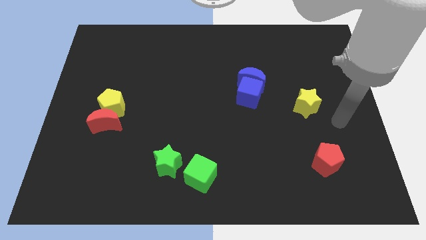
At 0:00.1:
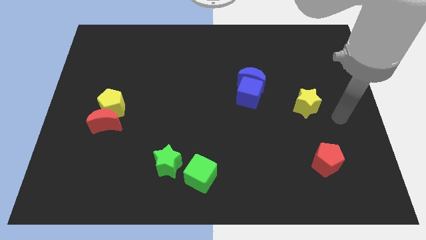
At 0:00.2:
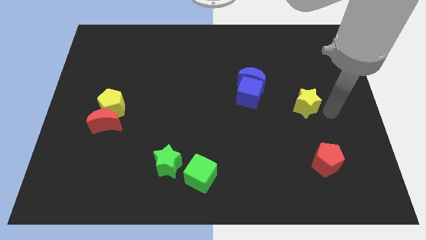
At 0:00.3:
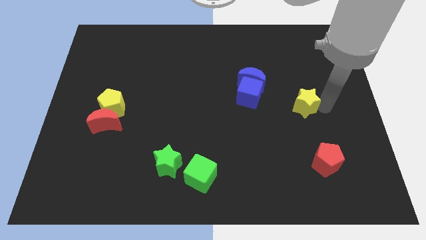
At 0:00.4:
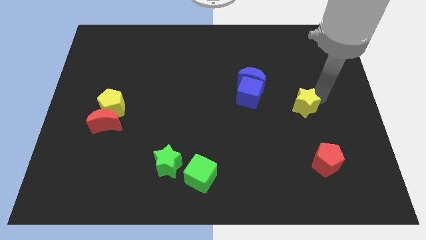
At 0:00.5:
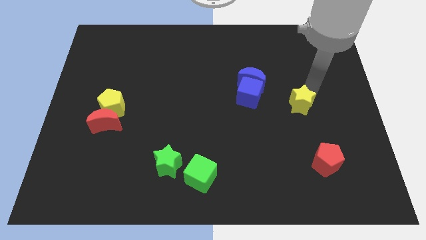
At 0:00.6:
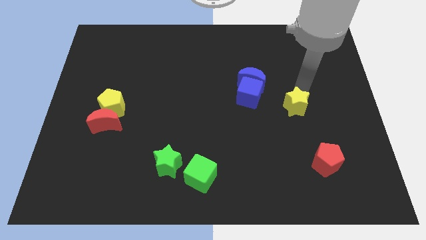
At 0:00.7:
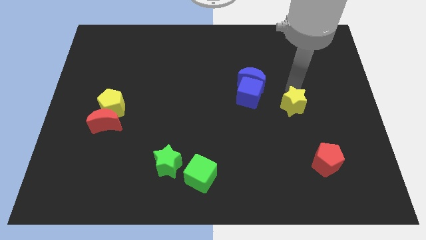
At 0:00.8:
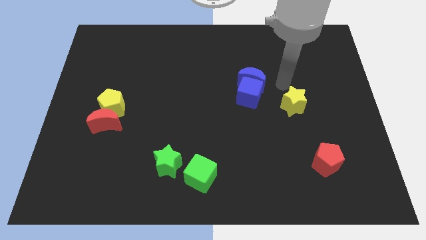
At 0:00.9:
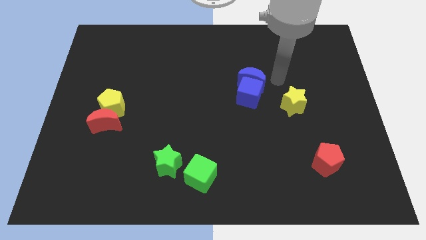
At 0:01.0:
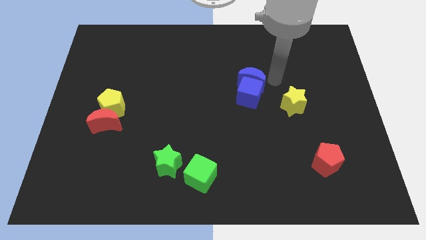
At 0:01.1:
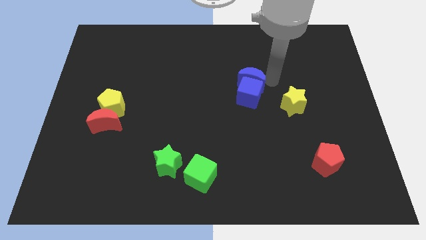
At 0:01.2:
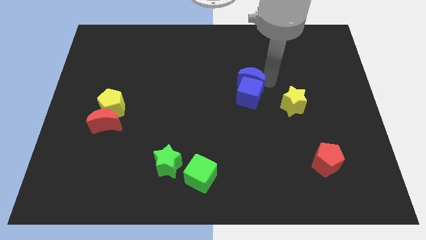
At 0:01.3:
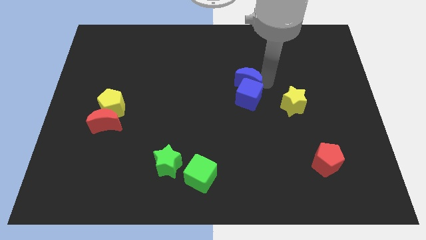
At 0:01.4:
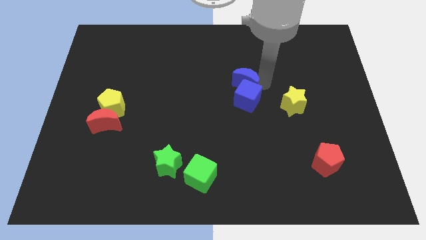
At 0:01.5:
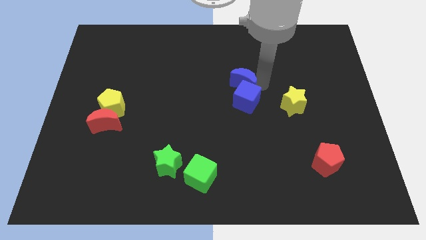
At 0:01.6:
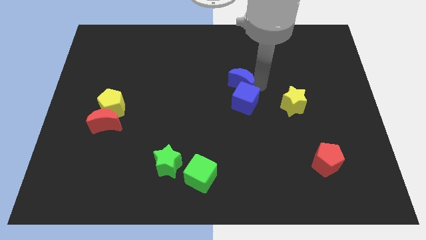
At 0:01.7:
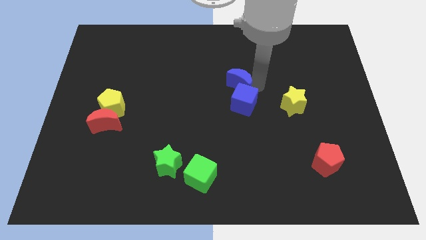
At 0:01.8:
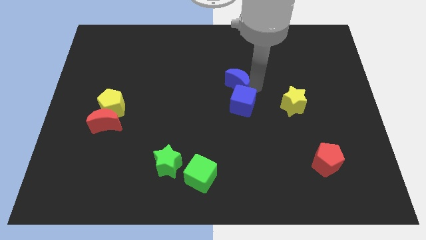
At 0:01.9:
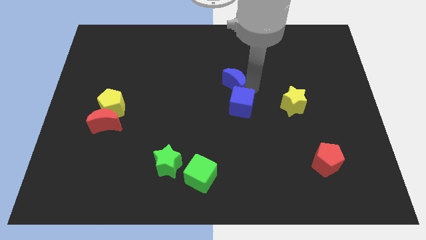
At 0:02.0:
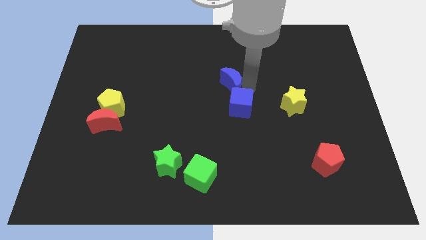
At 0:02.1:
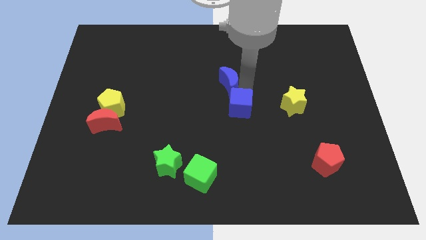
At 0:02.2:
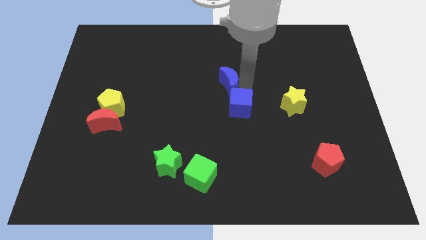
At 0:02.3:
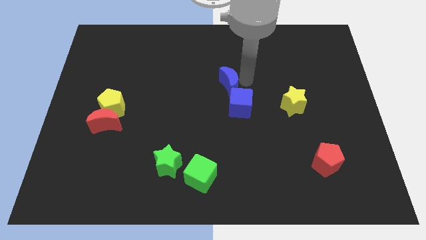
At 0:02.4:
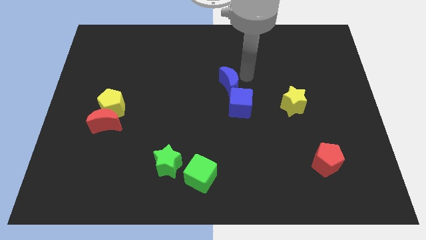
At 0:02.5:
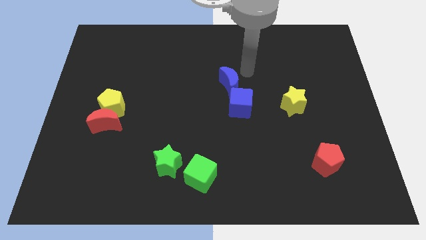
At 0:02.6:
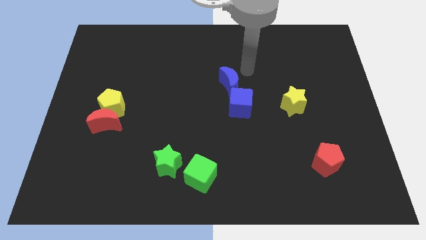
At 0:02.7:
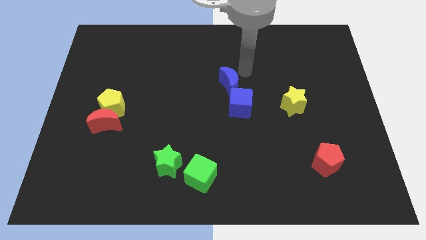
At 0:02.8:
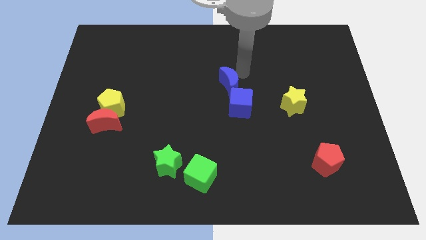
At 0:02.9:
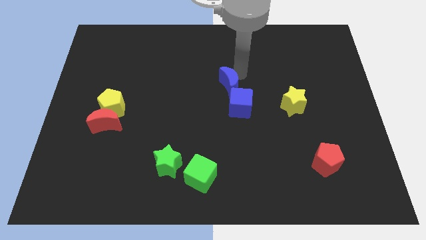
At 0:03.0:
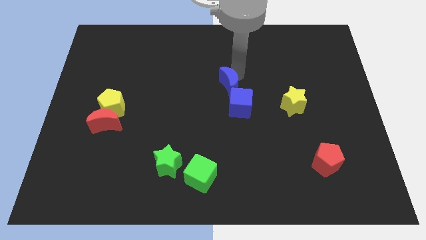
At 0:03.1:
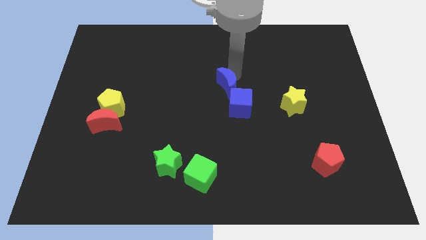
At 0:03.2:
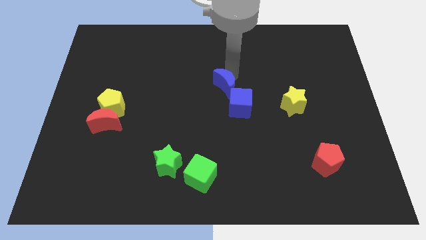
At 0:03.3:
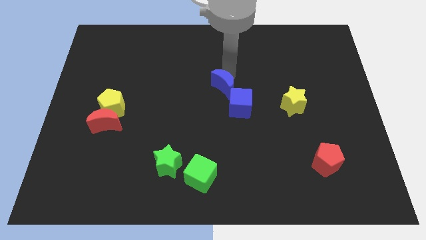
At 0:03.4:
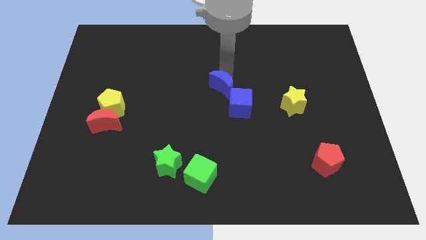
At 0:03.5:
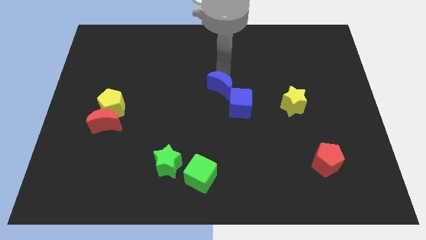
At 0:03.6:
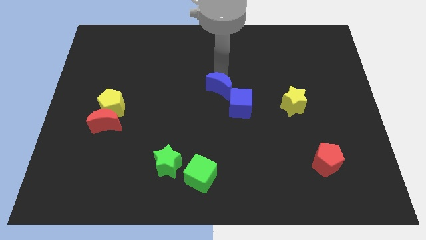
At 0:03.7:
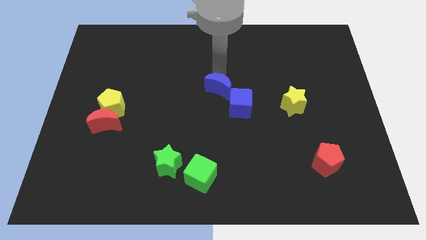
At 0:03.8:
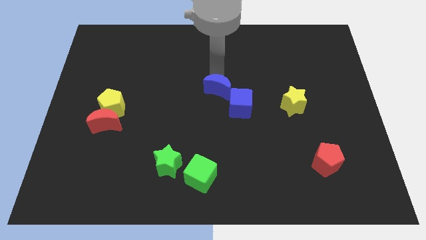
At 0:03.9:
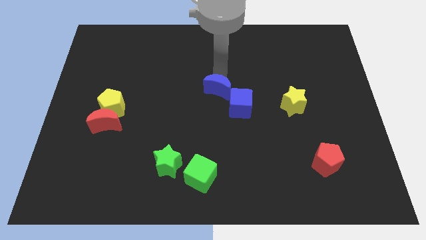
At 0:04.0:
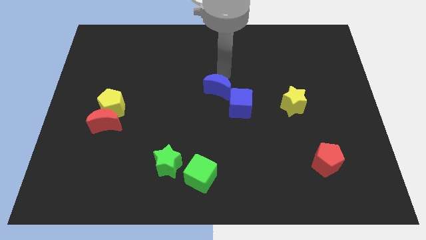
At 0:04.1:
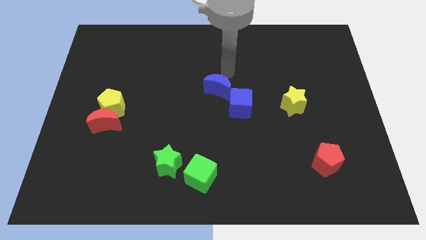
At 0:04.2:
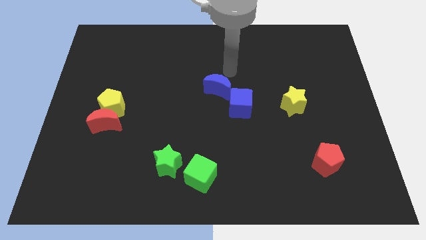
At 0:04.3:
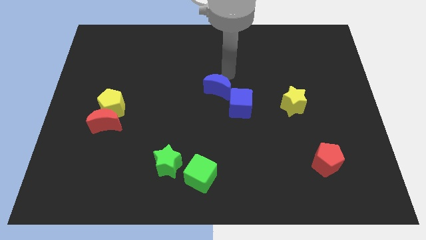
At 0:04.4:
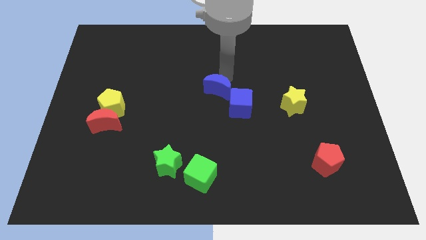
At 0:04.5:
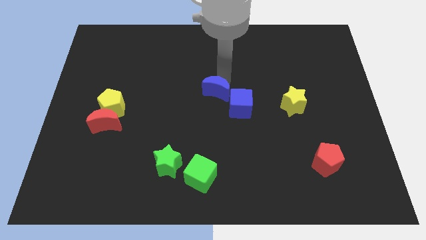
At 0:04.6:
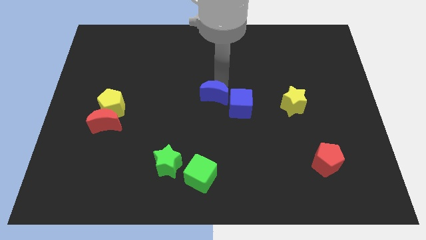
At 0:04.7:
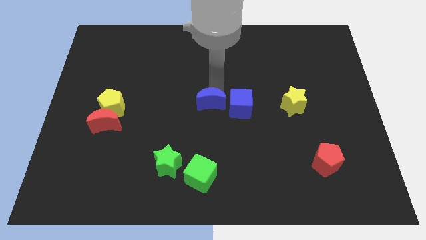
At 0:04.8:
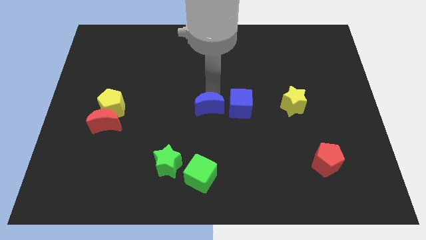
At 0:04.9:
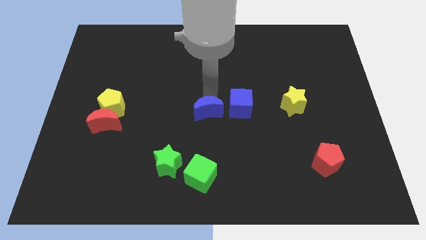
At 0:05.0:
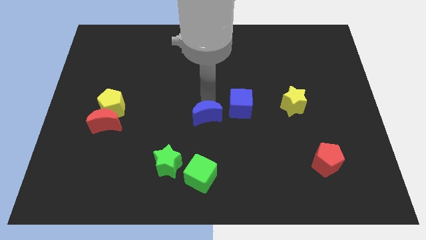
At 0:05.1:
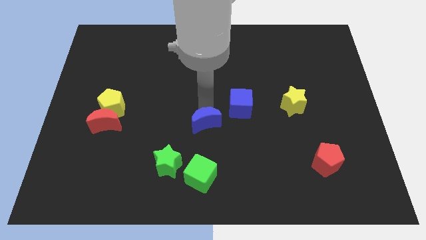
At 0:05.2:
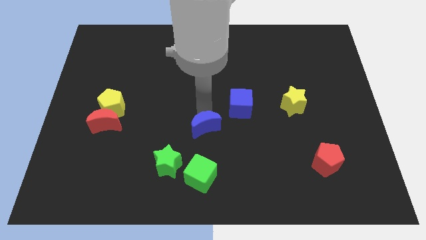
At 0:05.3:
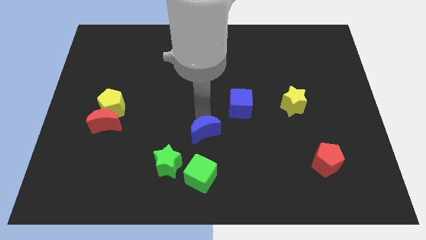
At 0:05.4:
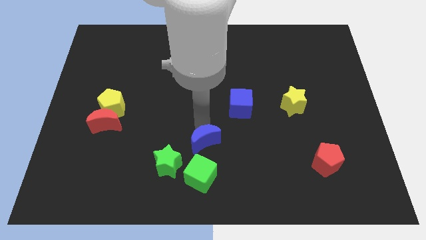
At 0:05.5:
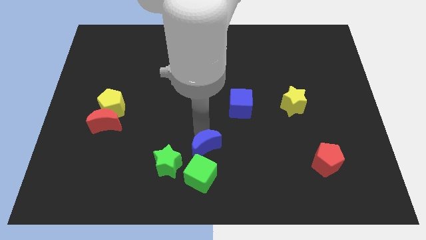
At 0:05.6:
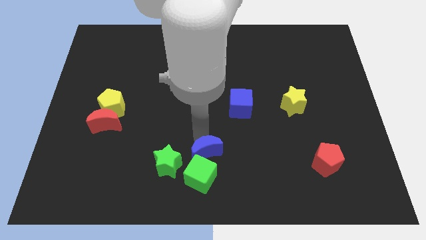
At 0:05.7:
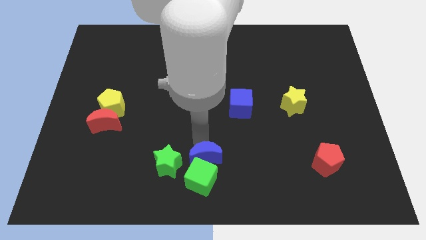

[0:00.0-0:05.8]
put the blue moon to the bottom

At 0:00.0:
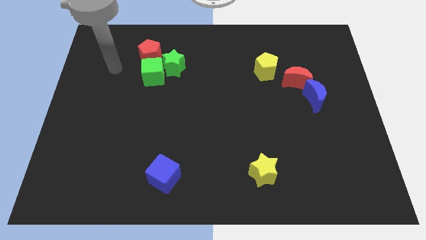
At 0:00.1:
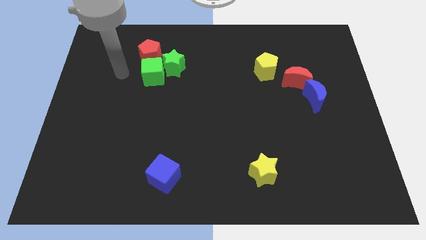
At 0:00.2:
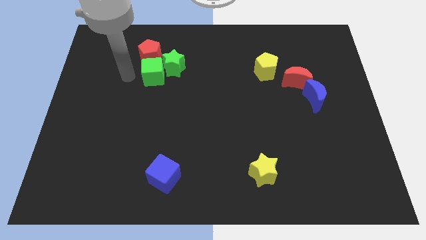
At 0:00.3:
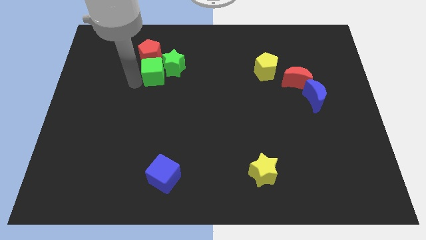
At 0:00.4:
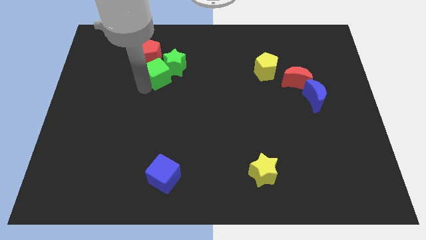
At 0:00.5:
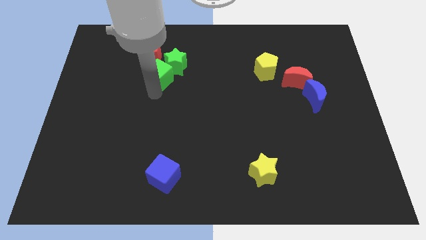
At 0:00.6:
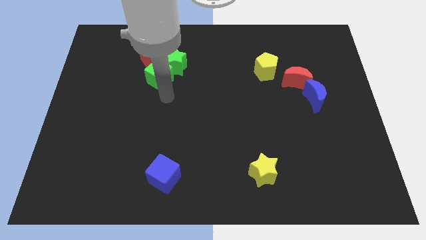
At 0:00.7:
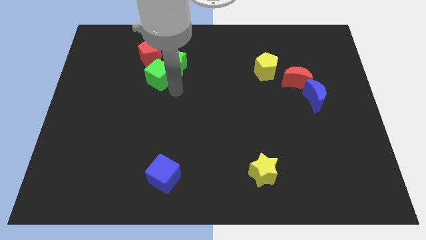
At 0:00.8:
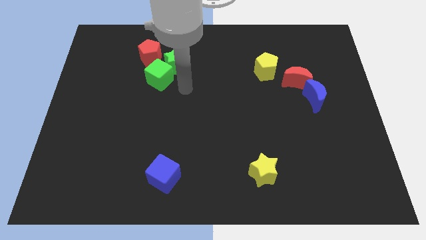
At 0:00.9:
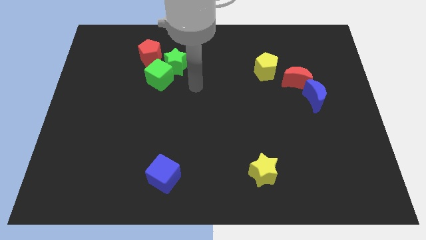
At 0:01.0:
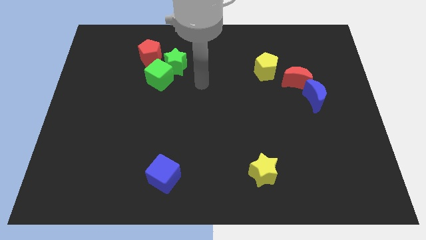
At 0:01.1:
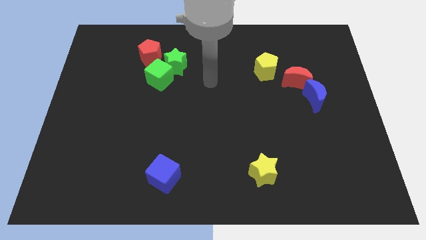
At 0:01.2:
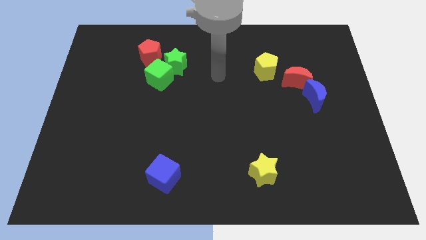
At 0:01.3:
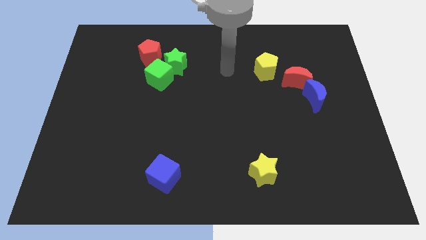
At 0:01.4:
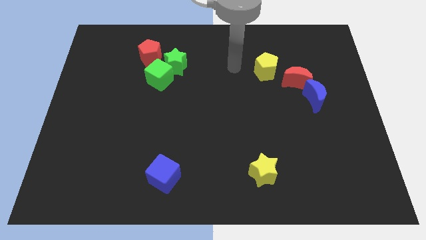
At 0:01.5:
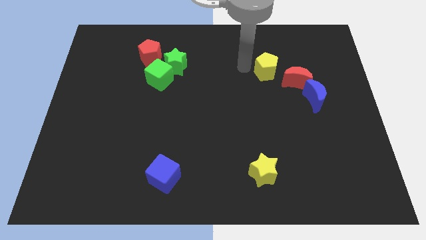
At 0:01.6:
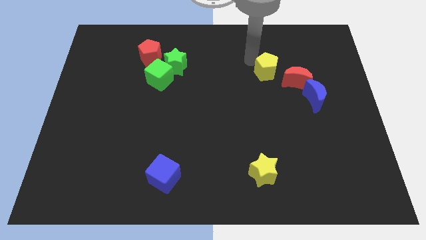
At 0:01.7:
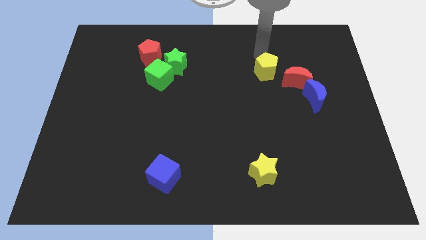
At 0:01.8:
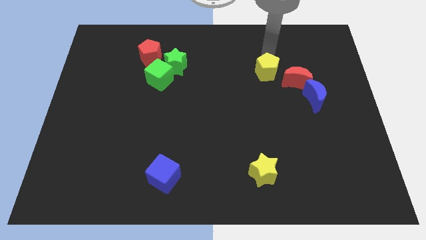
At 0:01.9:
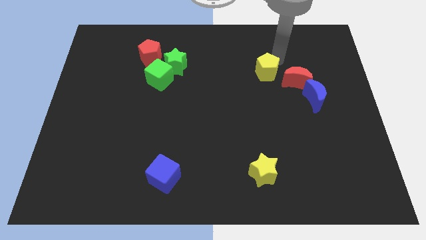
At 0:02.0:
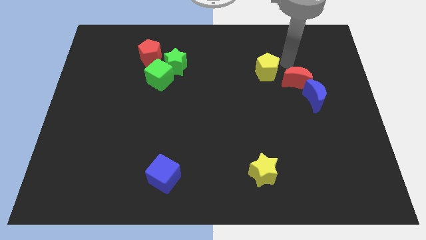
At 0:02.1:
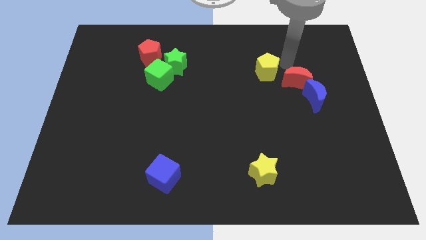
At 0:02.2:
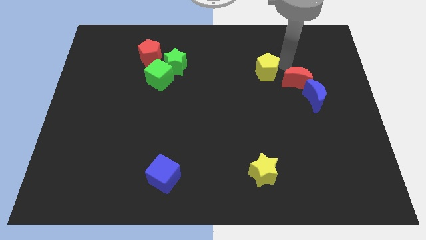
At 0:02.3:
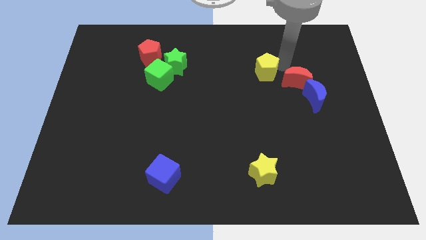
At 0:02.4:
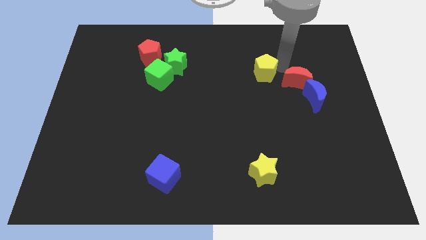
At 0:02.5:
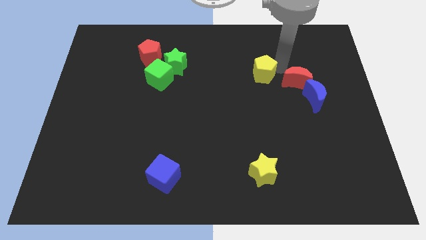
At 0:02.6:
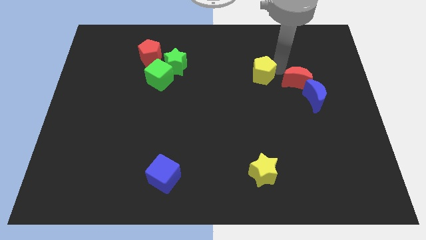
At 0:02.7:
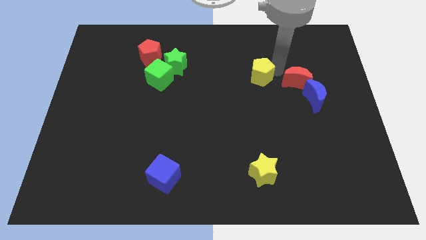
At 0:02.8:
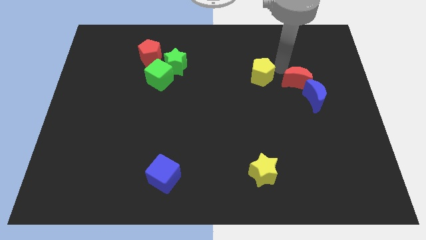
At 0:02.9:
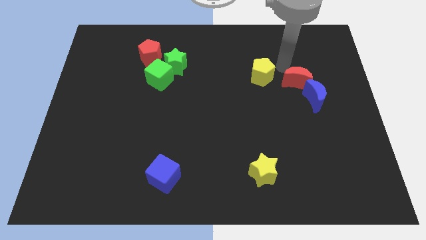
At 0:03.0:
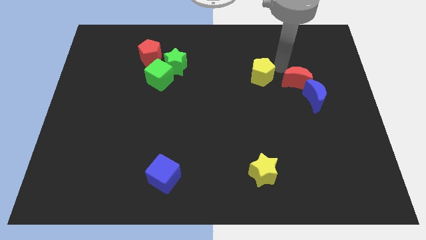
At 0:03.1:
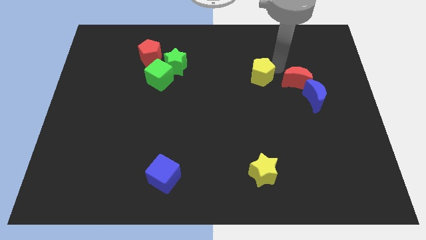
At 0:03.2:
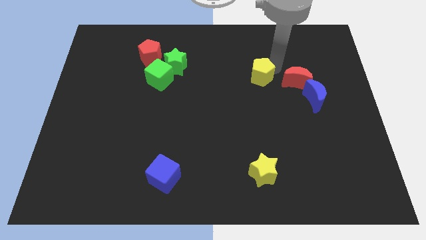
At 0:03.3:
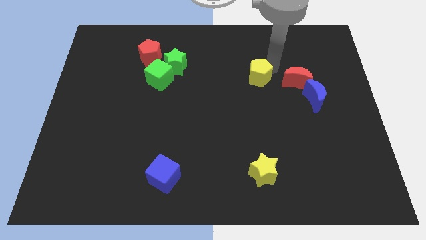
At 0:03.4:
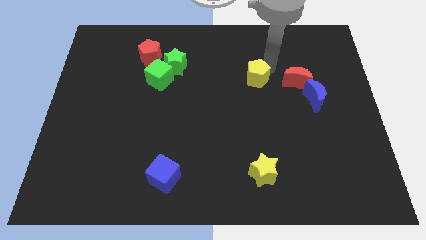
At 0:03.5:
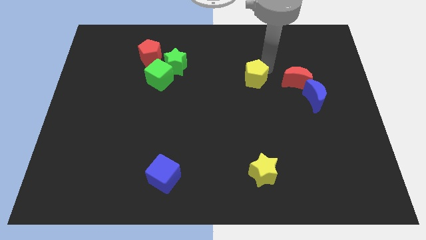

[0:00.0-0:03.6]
put the yellow pentagon to the center
